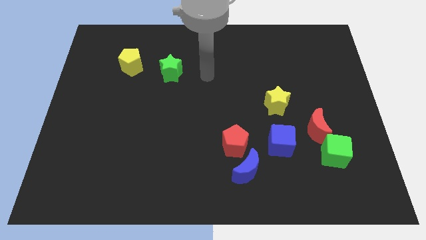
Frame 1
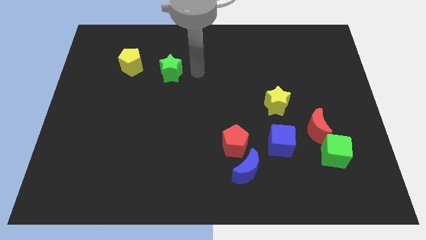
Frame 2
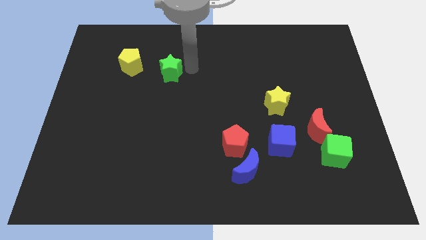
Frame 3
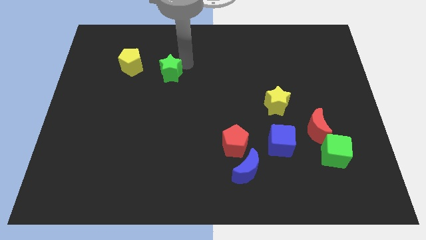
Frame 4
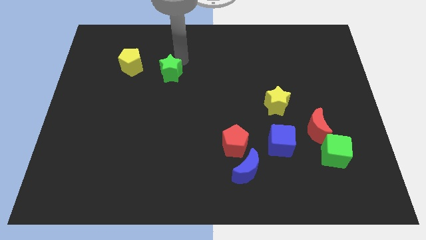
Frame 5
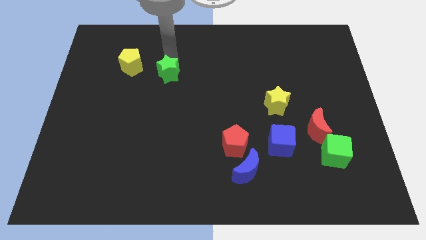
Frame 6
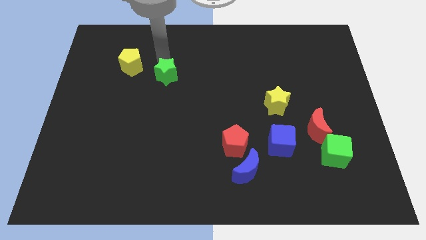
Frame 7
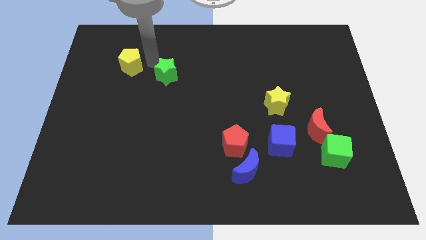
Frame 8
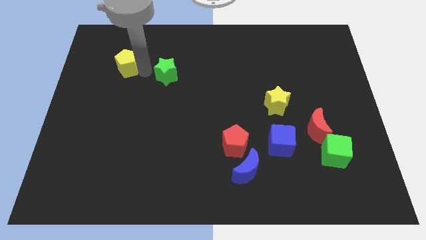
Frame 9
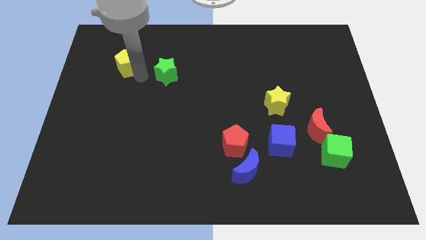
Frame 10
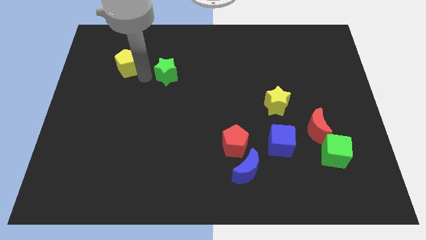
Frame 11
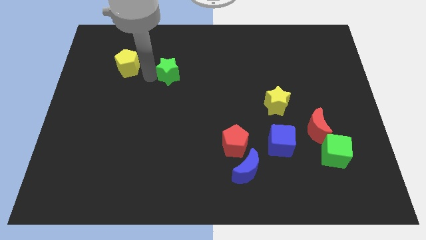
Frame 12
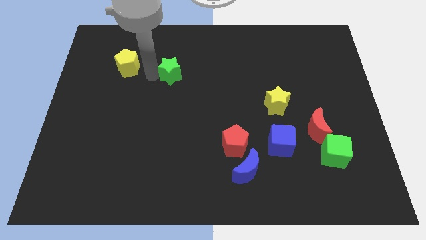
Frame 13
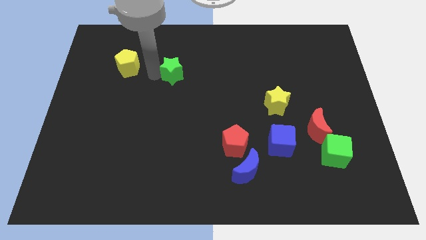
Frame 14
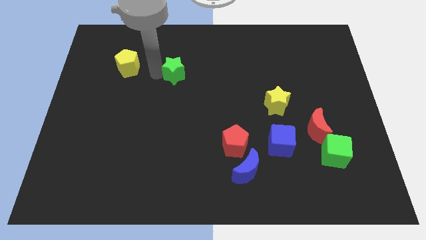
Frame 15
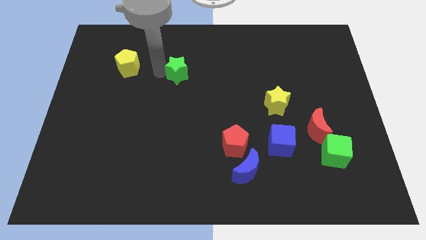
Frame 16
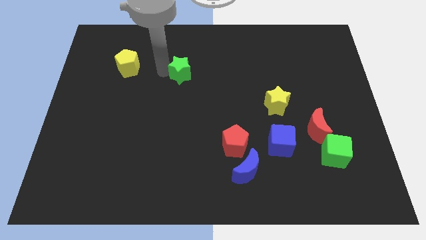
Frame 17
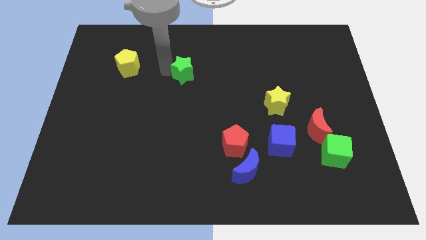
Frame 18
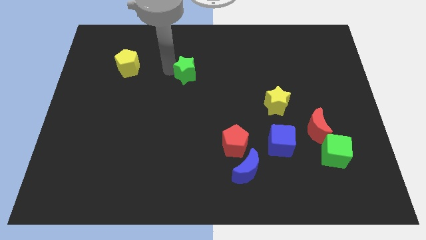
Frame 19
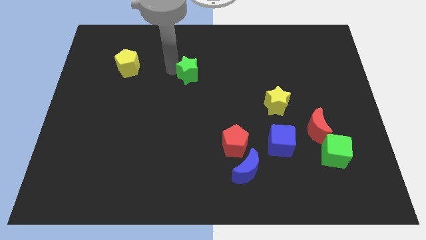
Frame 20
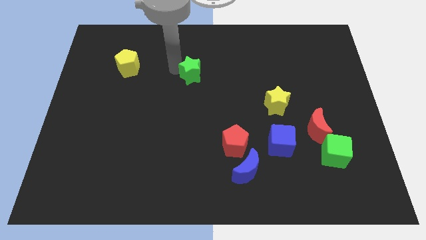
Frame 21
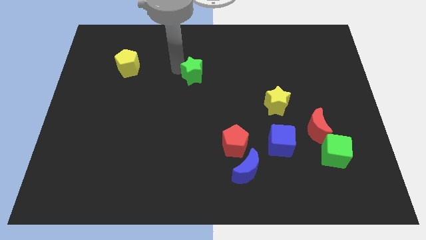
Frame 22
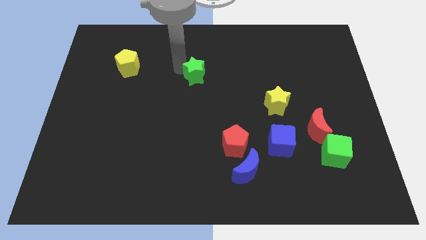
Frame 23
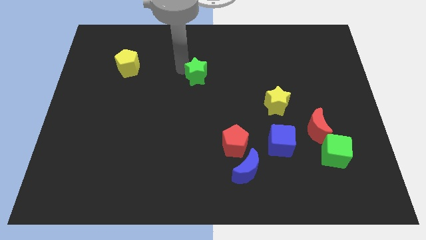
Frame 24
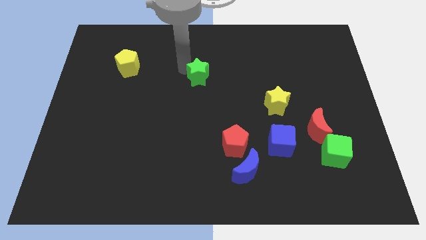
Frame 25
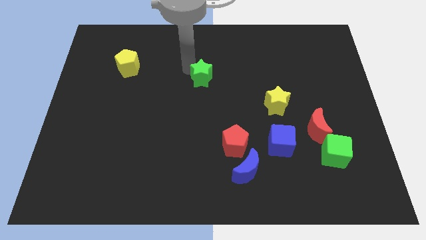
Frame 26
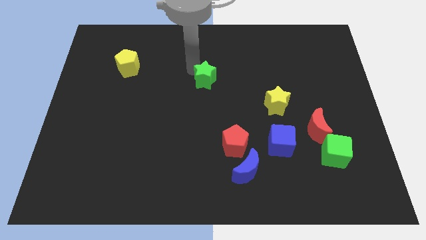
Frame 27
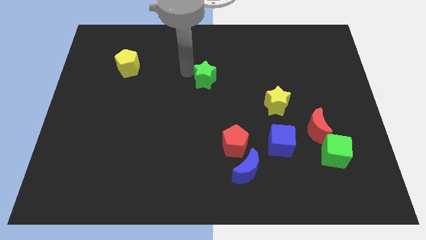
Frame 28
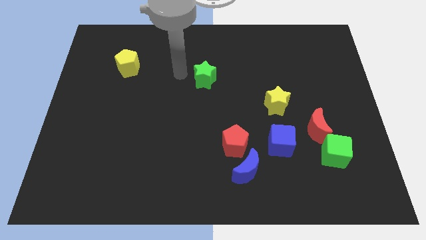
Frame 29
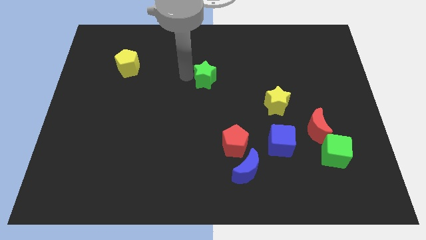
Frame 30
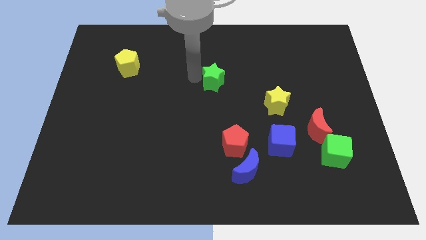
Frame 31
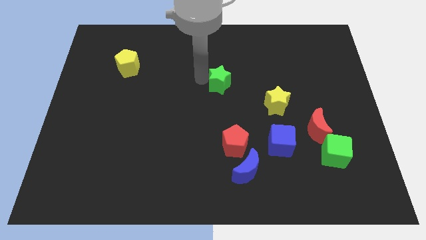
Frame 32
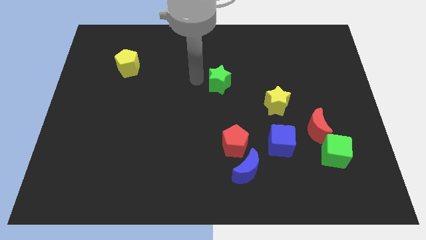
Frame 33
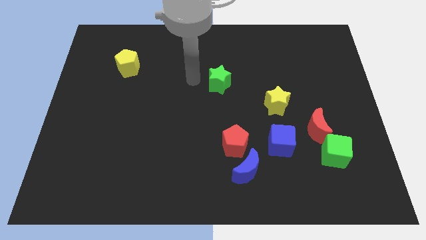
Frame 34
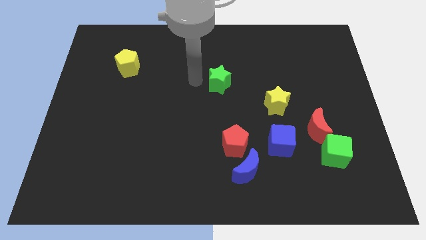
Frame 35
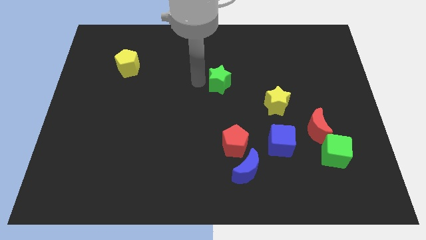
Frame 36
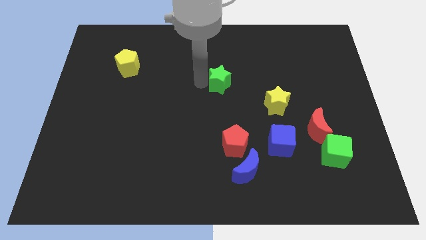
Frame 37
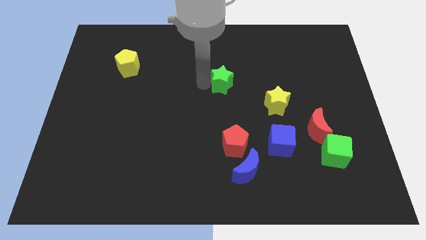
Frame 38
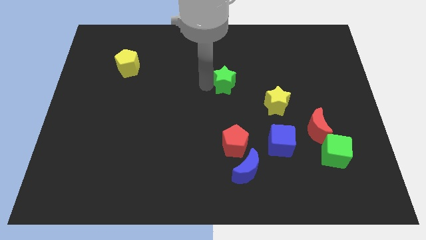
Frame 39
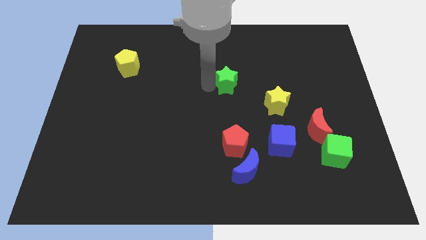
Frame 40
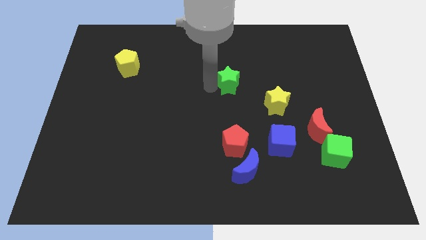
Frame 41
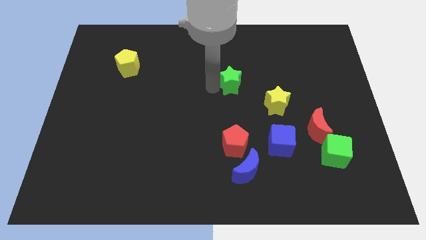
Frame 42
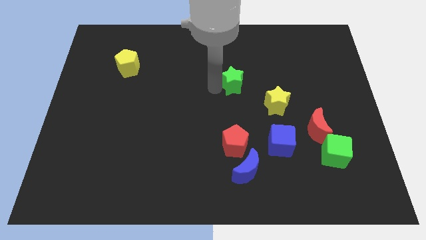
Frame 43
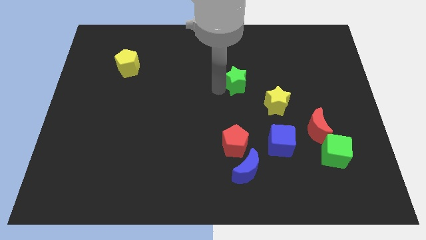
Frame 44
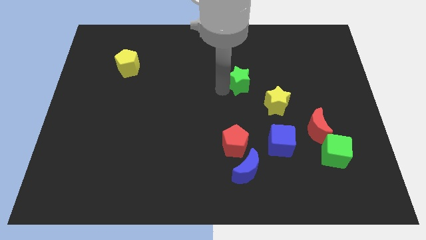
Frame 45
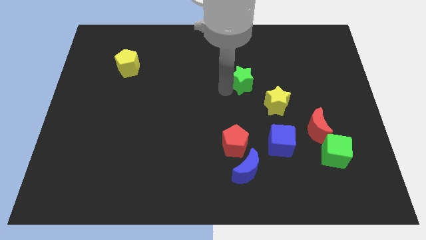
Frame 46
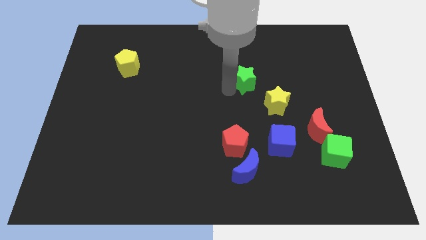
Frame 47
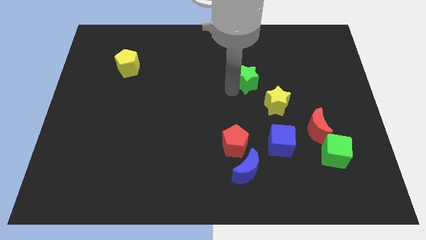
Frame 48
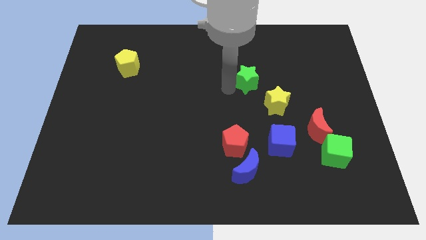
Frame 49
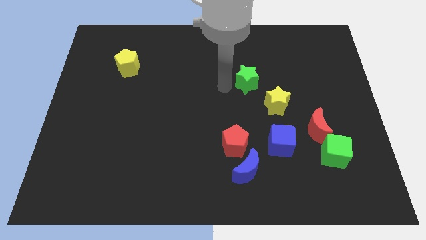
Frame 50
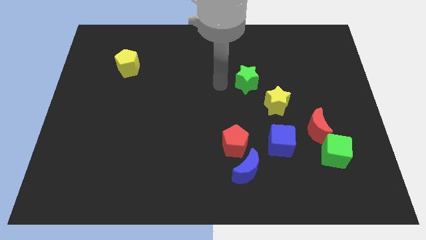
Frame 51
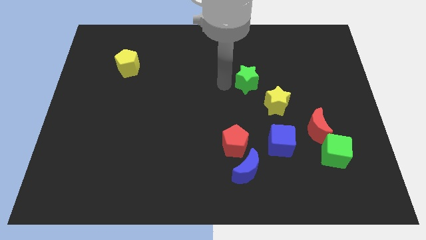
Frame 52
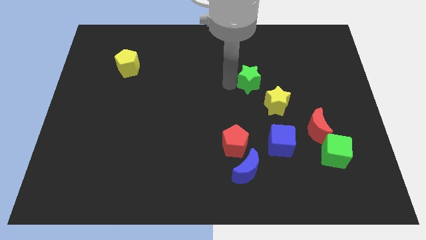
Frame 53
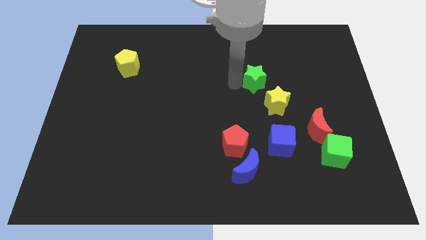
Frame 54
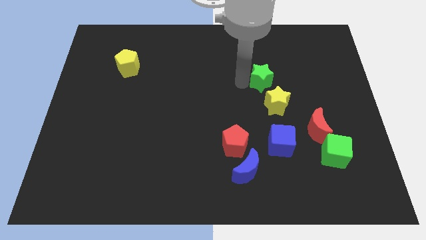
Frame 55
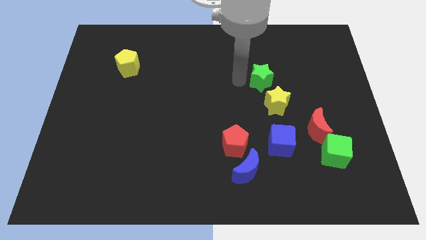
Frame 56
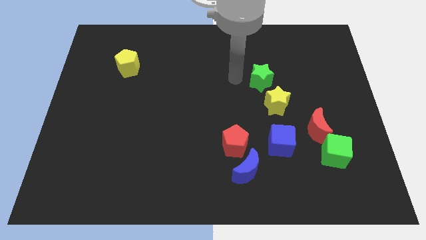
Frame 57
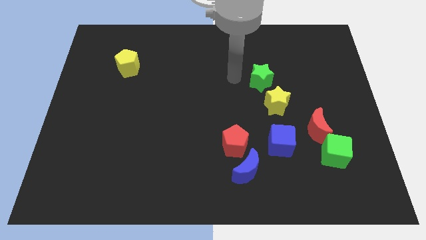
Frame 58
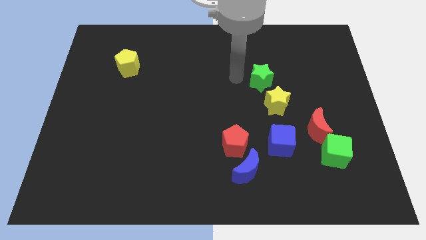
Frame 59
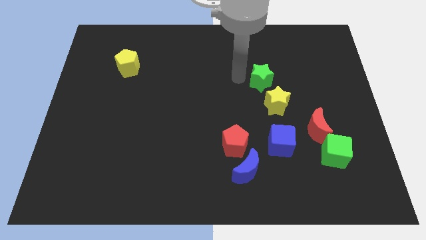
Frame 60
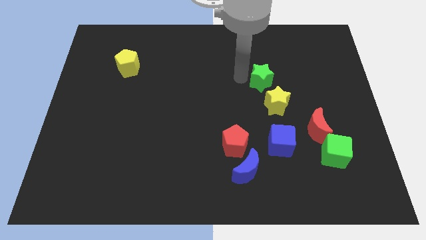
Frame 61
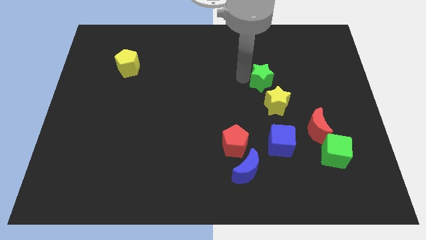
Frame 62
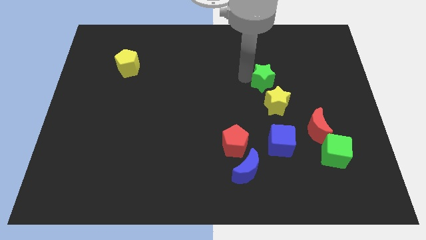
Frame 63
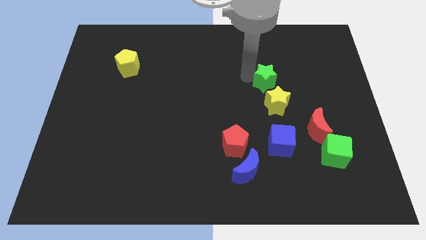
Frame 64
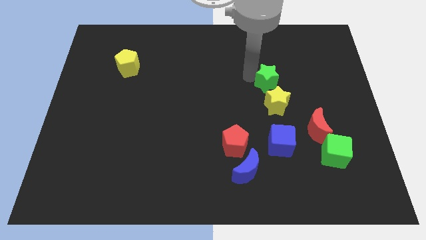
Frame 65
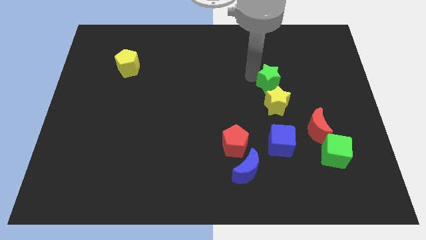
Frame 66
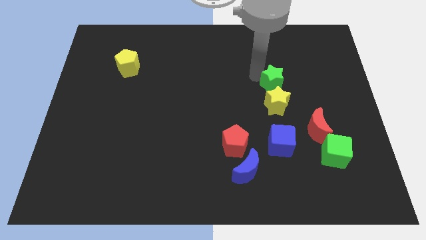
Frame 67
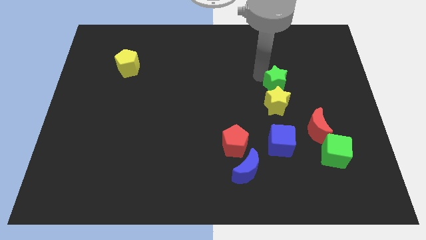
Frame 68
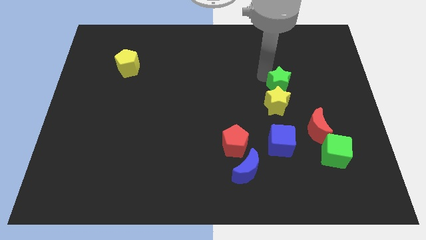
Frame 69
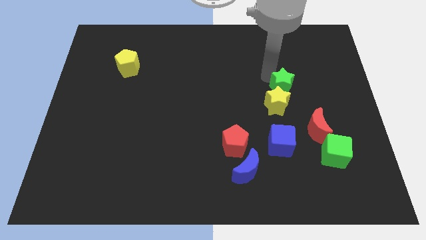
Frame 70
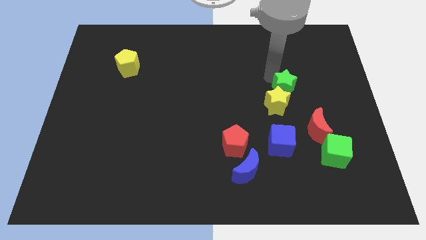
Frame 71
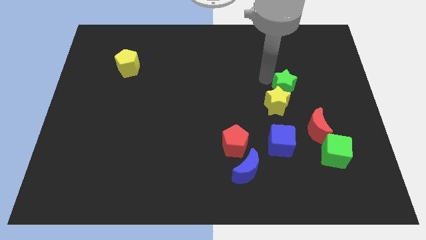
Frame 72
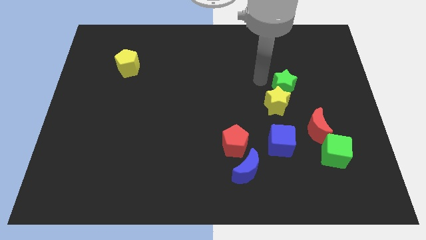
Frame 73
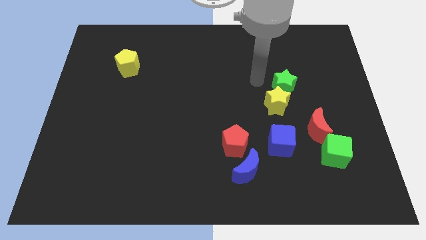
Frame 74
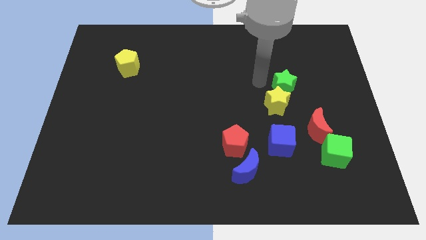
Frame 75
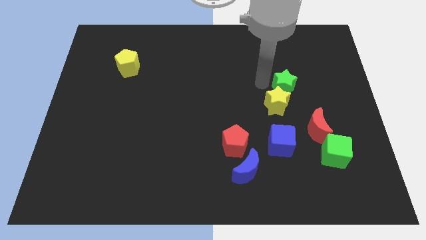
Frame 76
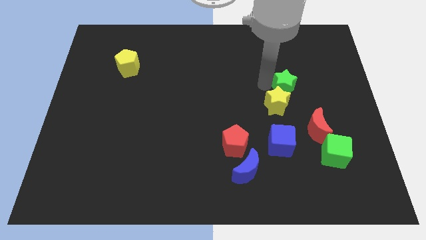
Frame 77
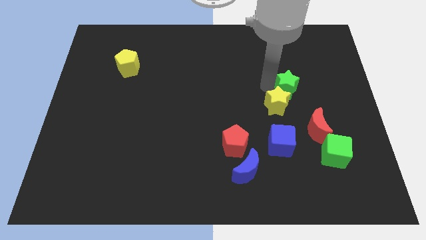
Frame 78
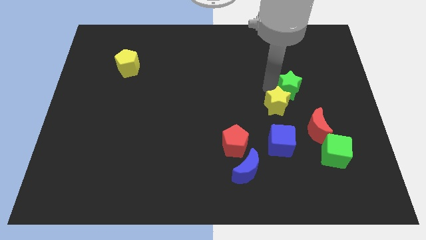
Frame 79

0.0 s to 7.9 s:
push the green star to the top of the red moon
